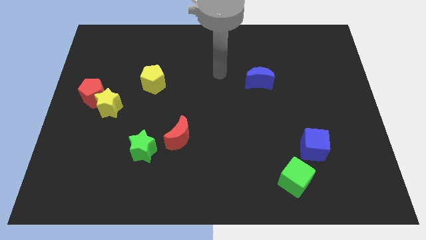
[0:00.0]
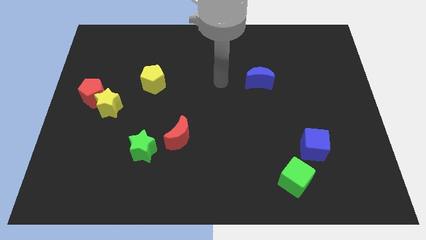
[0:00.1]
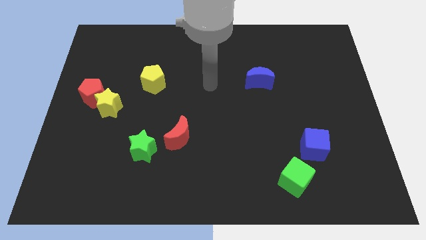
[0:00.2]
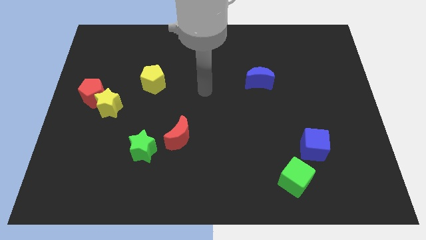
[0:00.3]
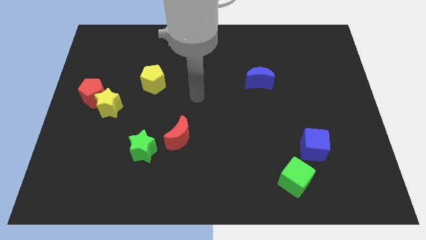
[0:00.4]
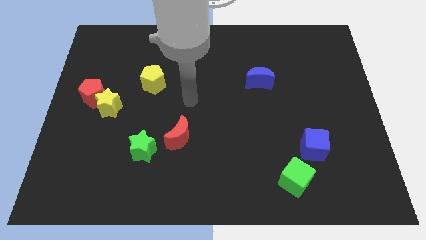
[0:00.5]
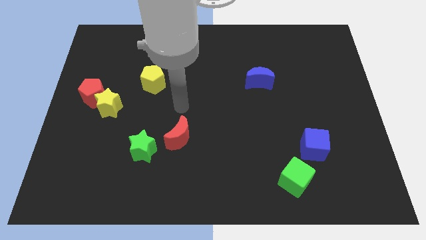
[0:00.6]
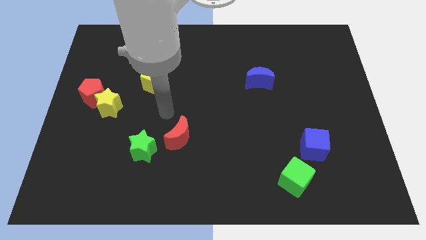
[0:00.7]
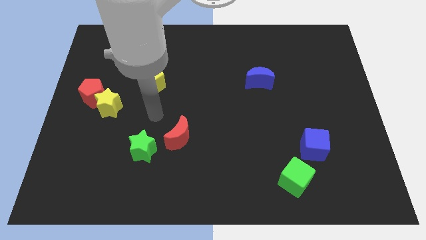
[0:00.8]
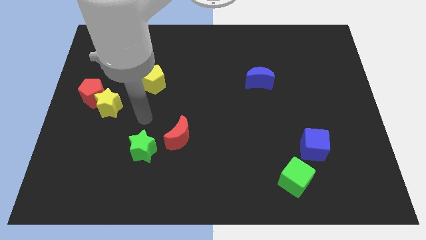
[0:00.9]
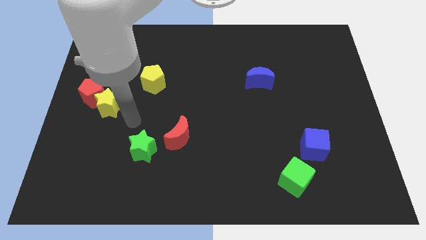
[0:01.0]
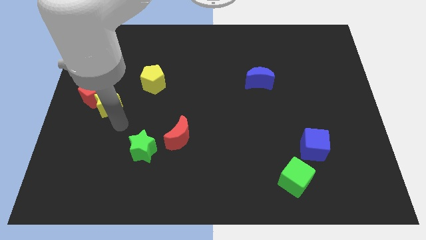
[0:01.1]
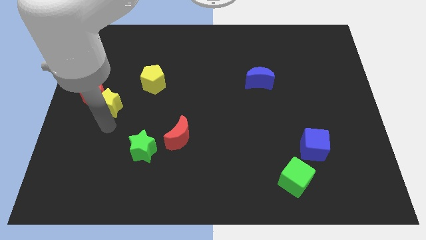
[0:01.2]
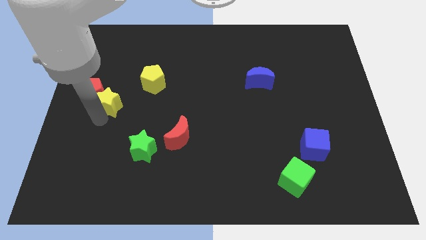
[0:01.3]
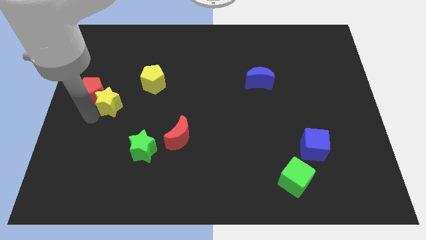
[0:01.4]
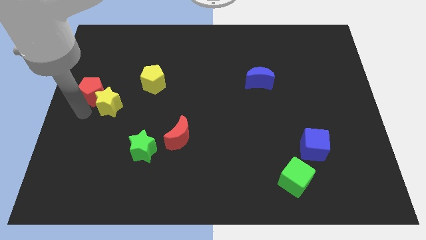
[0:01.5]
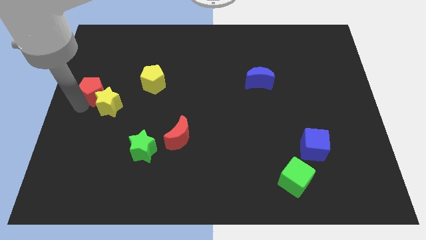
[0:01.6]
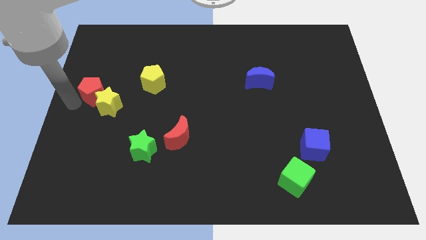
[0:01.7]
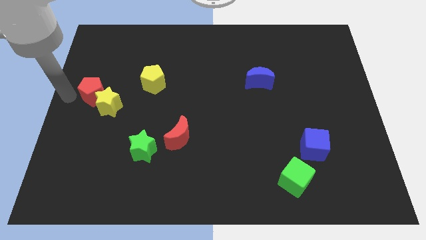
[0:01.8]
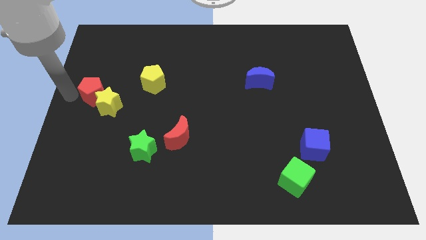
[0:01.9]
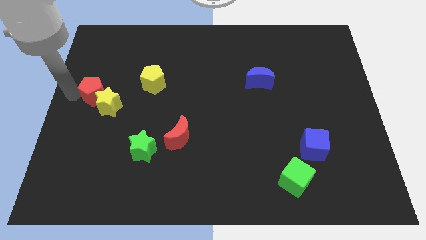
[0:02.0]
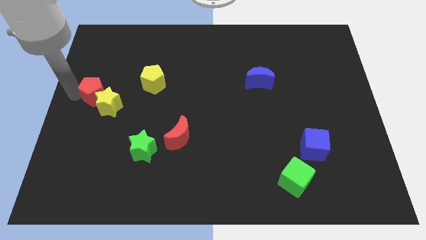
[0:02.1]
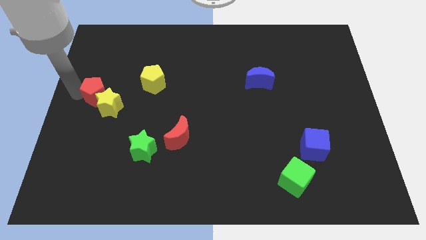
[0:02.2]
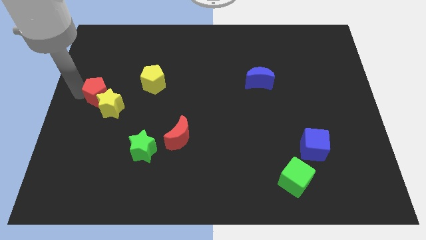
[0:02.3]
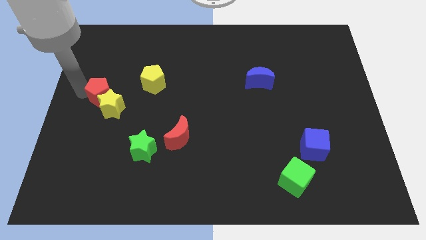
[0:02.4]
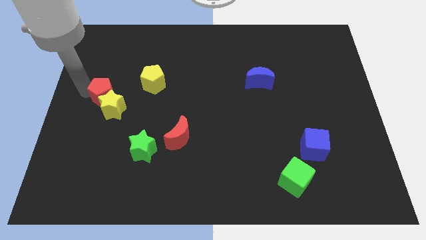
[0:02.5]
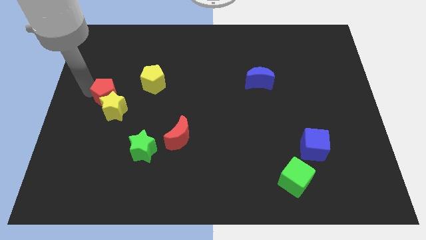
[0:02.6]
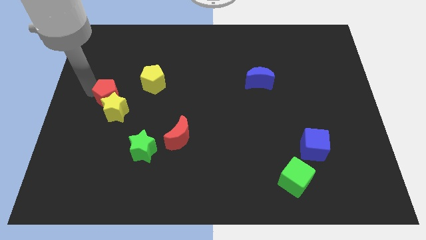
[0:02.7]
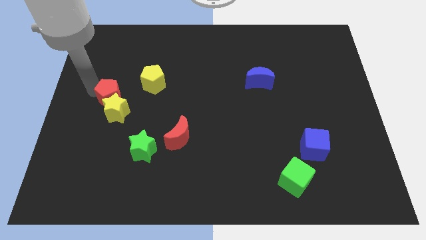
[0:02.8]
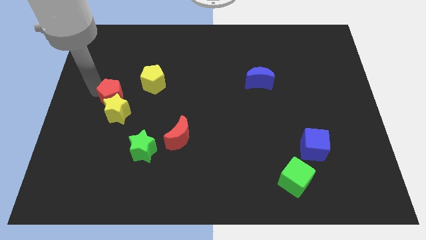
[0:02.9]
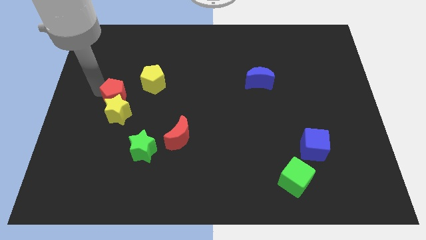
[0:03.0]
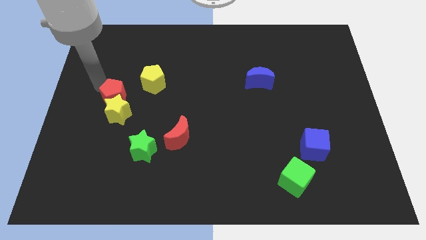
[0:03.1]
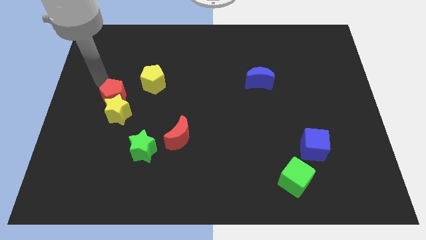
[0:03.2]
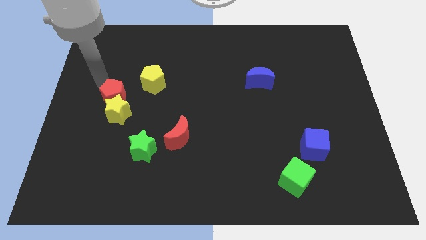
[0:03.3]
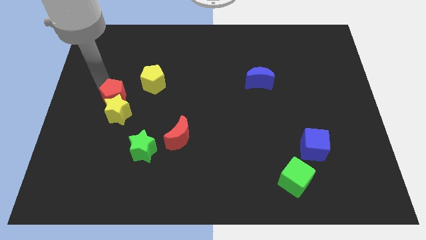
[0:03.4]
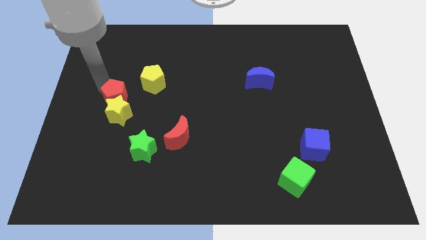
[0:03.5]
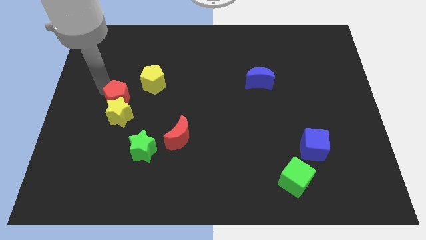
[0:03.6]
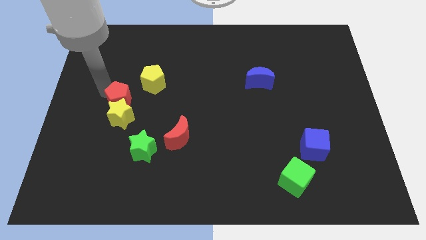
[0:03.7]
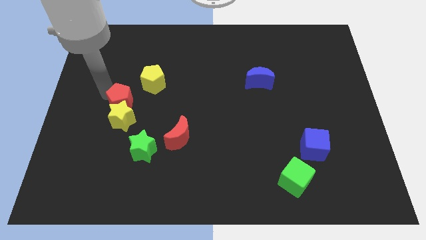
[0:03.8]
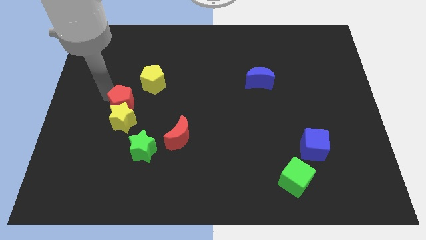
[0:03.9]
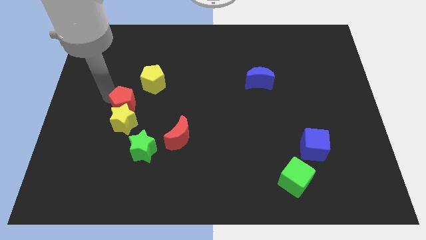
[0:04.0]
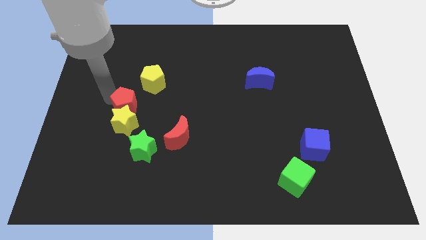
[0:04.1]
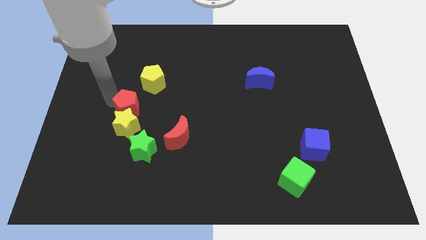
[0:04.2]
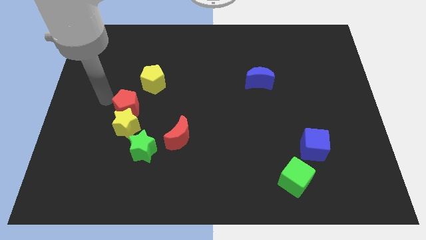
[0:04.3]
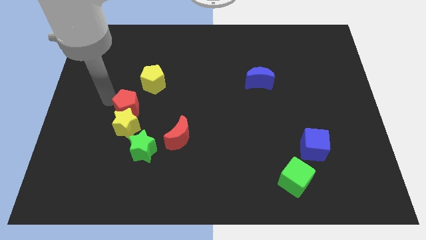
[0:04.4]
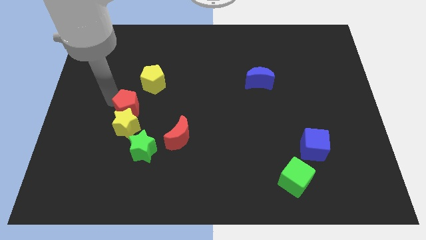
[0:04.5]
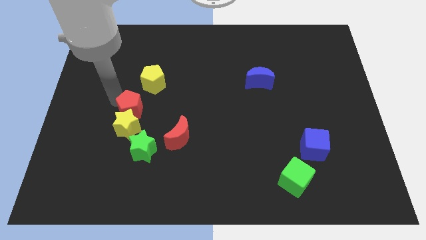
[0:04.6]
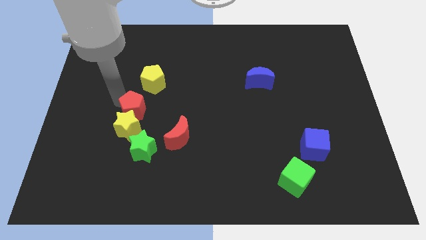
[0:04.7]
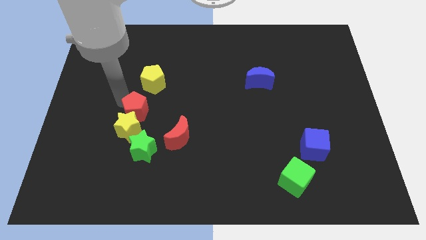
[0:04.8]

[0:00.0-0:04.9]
slide the red pentagon to the top left side of the red moon

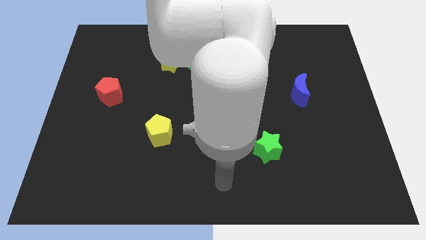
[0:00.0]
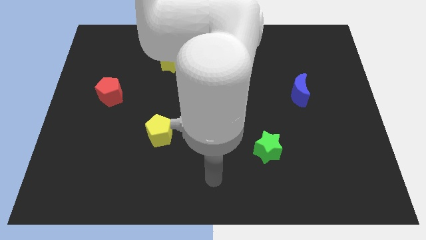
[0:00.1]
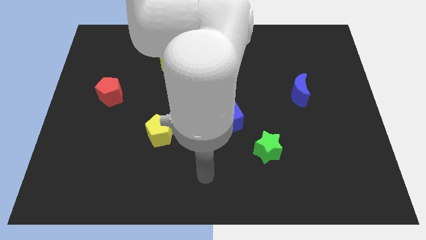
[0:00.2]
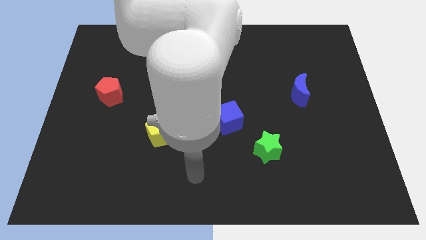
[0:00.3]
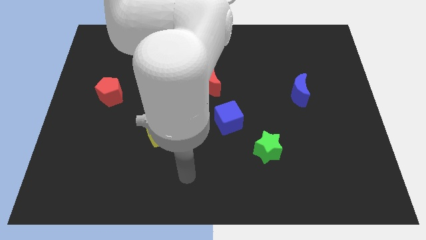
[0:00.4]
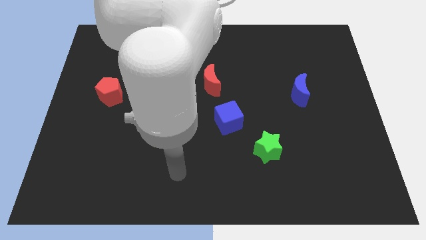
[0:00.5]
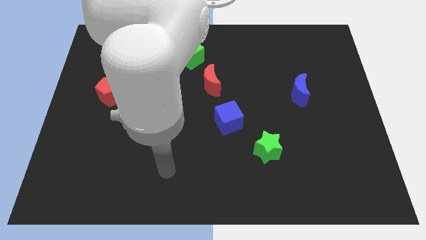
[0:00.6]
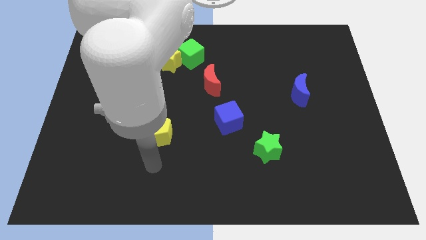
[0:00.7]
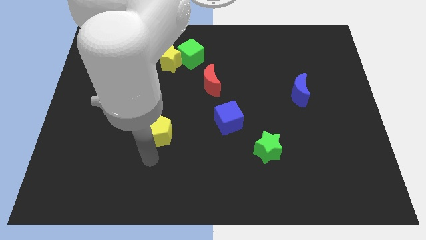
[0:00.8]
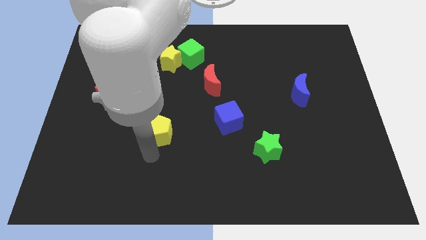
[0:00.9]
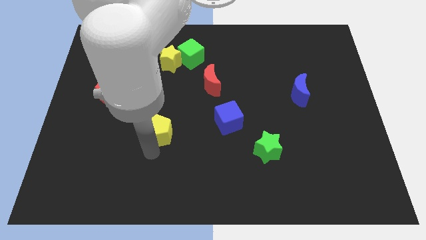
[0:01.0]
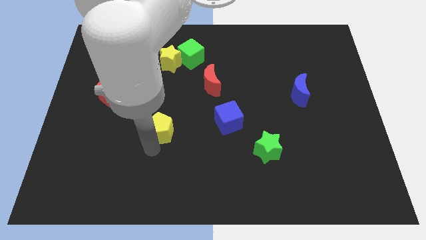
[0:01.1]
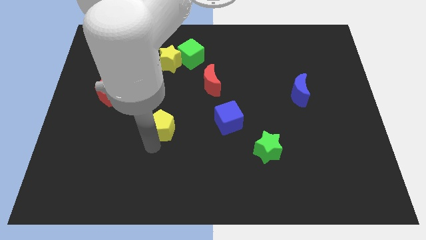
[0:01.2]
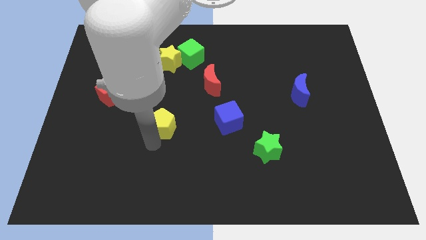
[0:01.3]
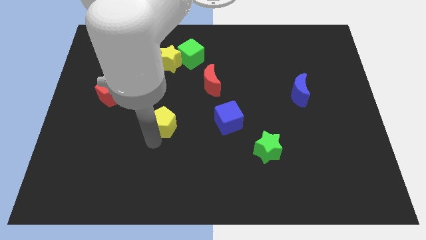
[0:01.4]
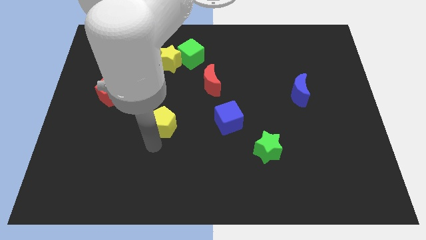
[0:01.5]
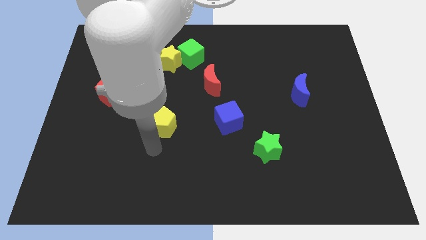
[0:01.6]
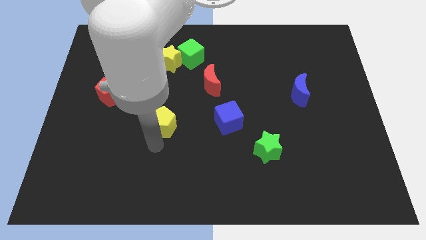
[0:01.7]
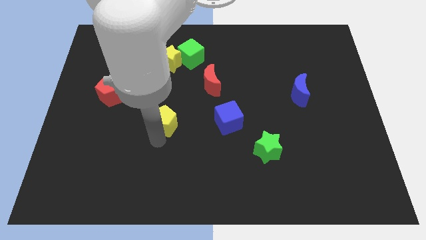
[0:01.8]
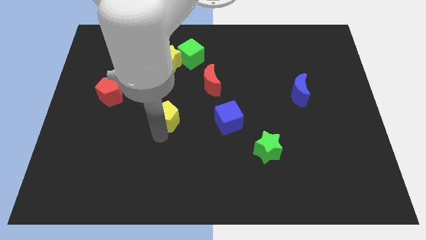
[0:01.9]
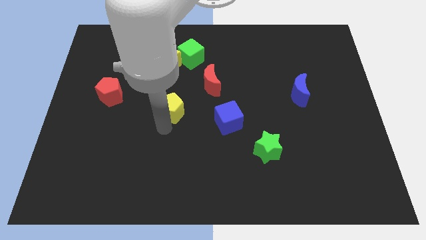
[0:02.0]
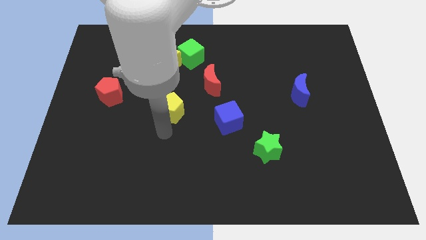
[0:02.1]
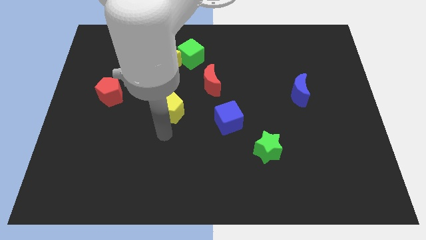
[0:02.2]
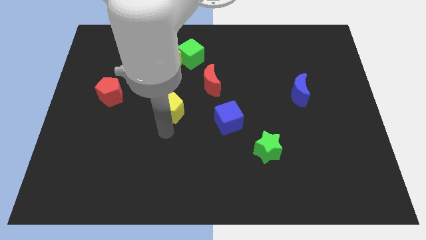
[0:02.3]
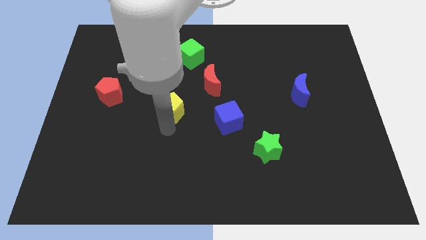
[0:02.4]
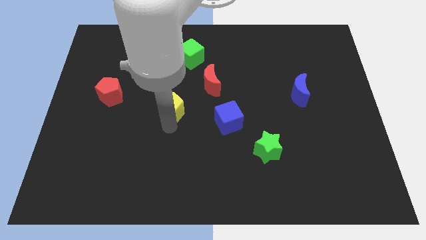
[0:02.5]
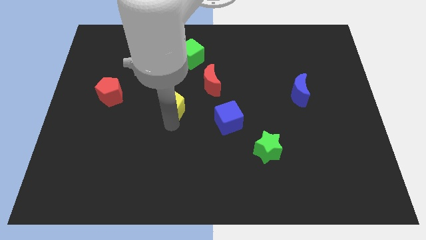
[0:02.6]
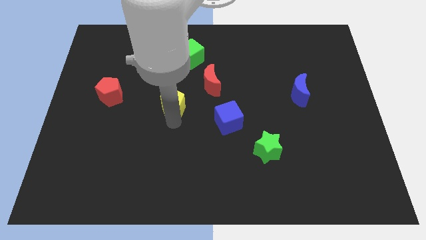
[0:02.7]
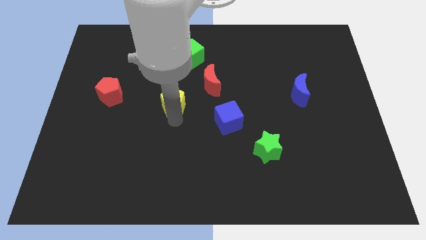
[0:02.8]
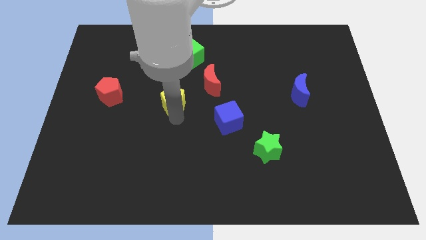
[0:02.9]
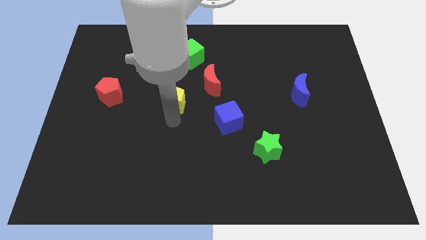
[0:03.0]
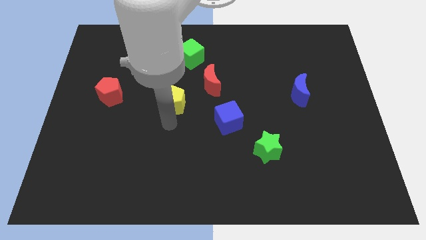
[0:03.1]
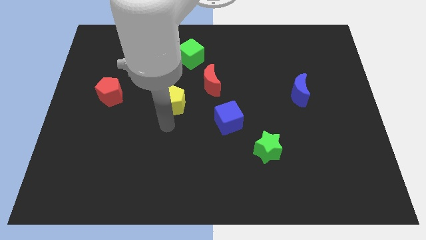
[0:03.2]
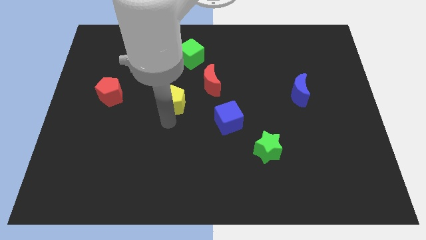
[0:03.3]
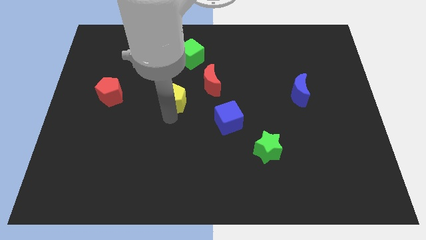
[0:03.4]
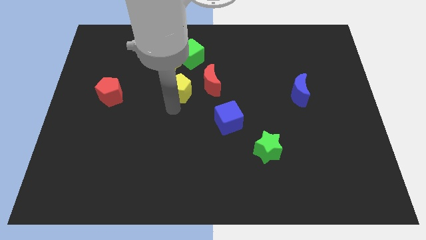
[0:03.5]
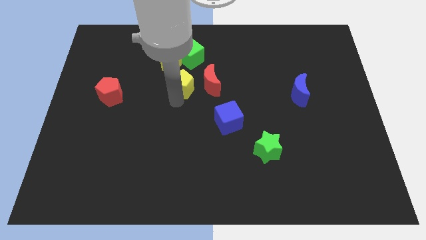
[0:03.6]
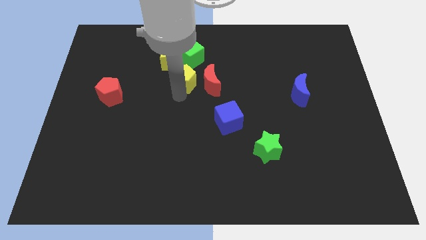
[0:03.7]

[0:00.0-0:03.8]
slide the yellow pentagon to the top left side of the red moon
